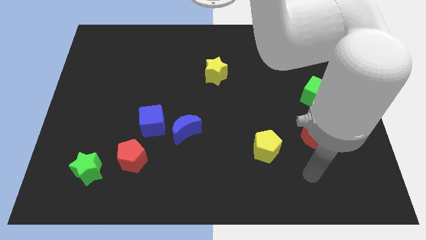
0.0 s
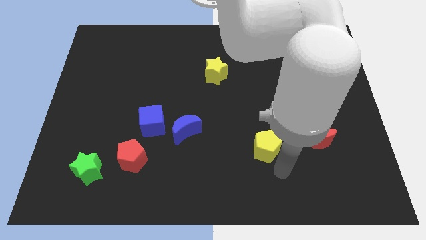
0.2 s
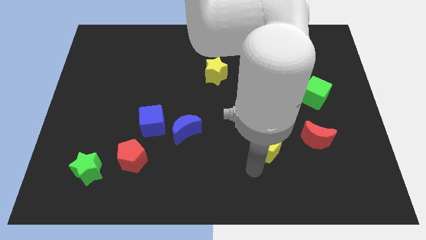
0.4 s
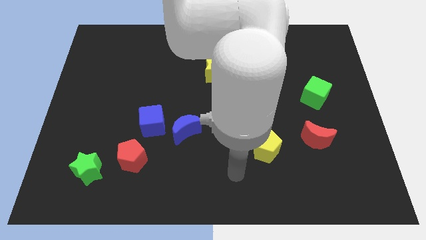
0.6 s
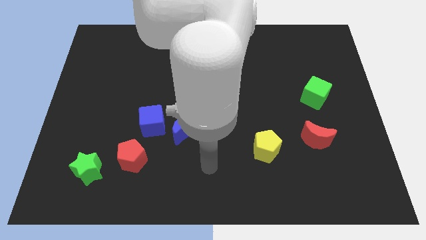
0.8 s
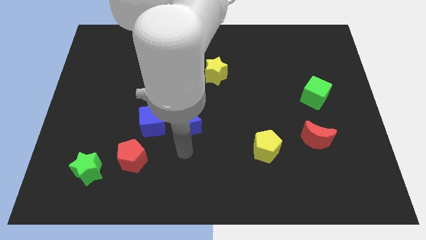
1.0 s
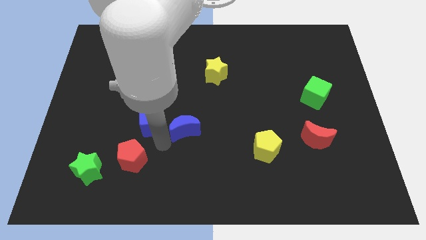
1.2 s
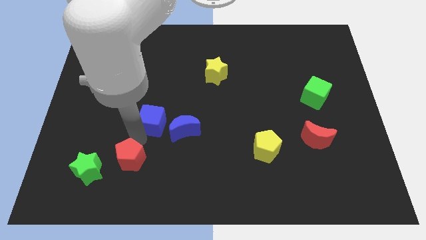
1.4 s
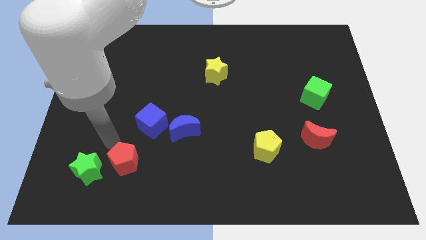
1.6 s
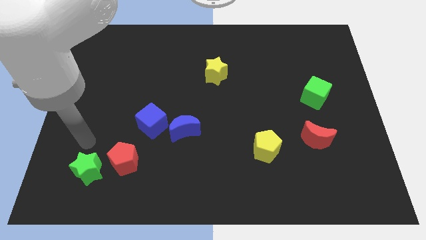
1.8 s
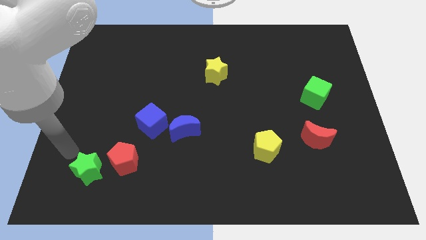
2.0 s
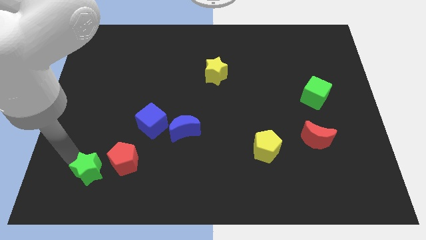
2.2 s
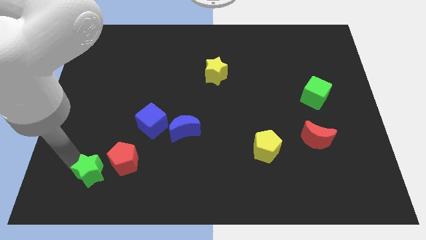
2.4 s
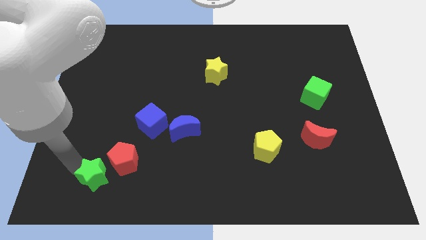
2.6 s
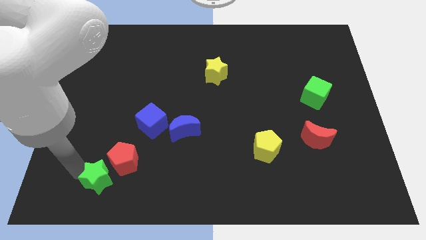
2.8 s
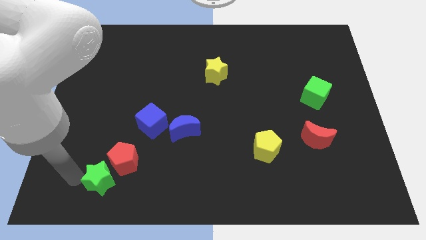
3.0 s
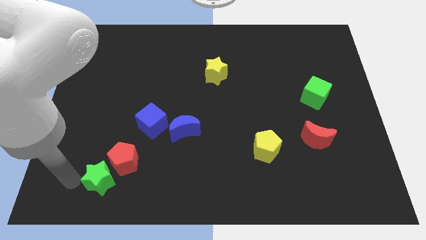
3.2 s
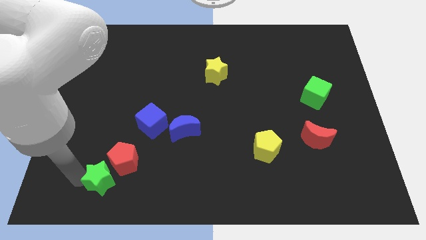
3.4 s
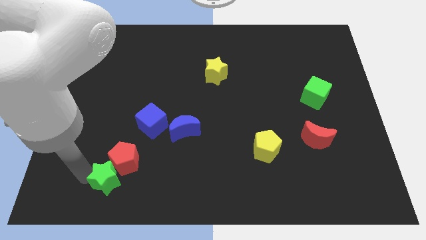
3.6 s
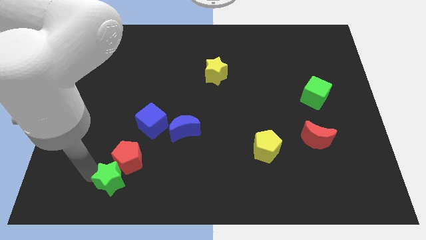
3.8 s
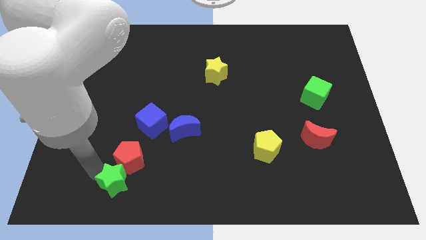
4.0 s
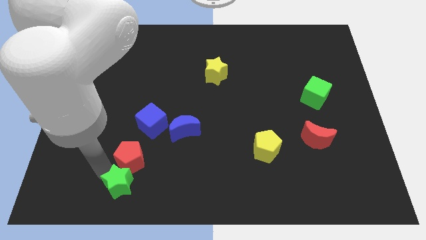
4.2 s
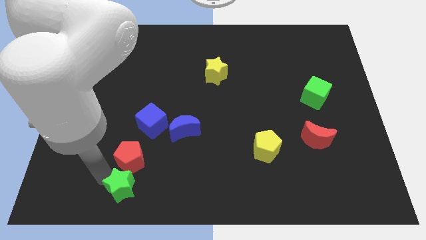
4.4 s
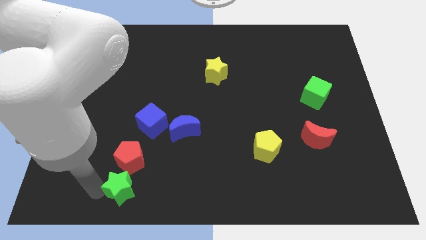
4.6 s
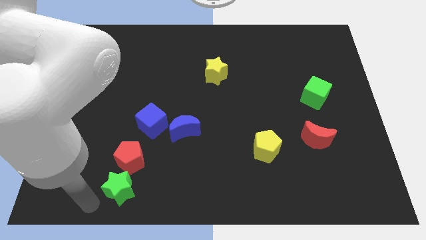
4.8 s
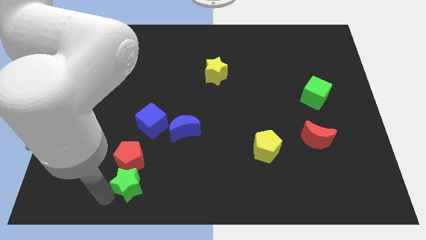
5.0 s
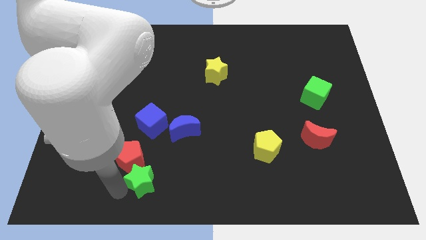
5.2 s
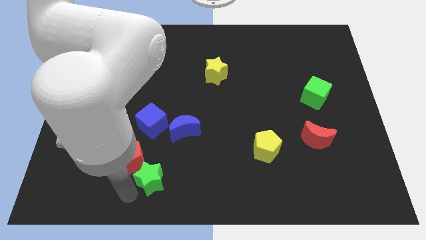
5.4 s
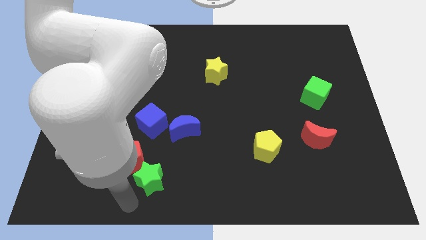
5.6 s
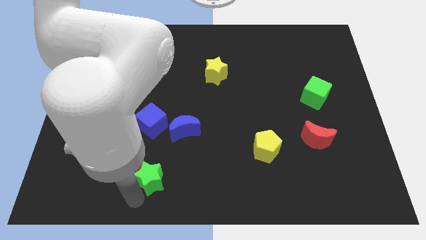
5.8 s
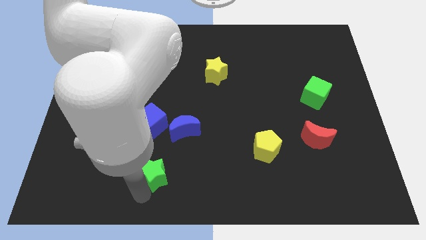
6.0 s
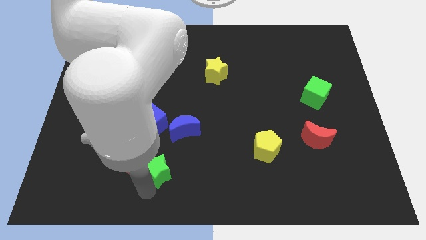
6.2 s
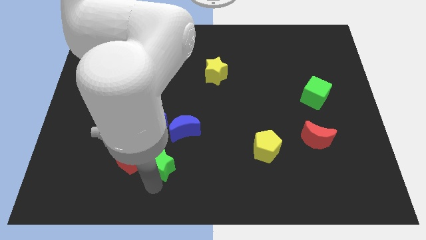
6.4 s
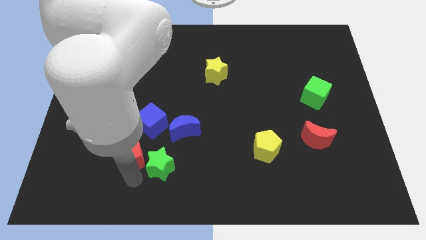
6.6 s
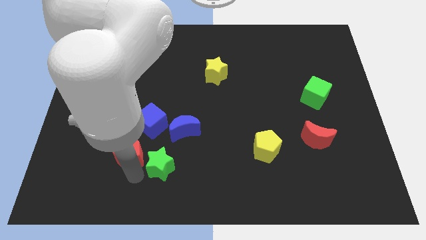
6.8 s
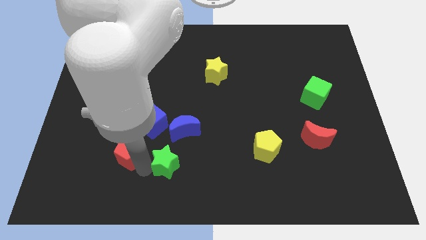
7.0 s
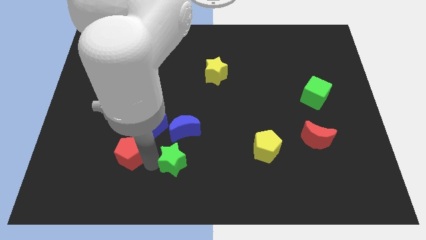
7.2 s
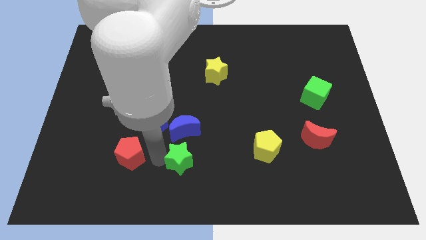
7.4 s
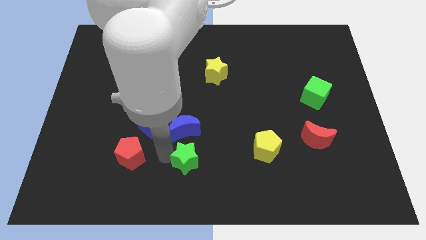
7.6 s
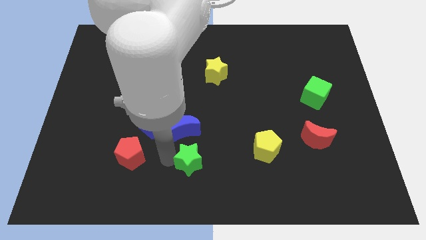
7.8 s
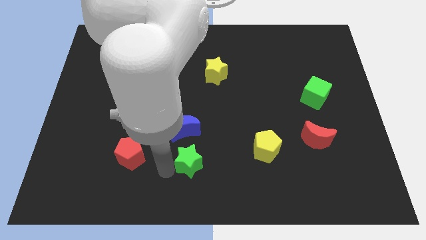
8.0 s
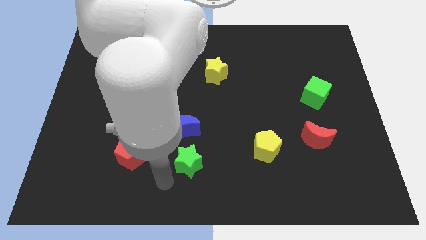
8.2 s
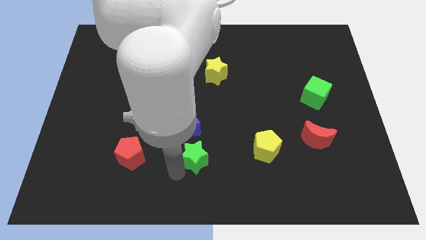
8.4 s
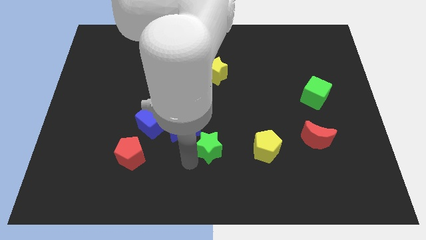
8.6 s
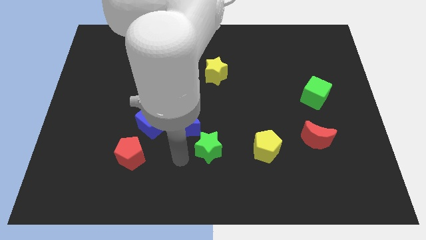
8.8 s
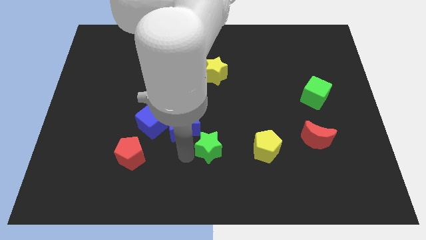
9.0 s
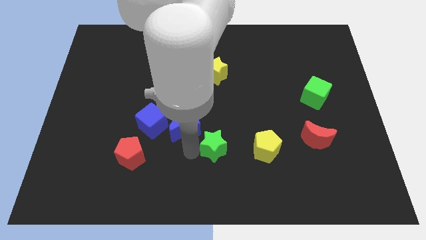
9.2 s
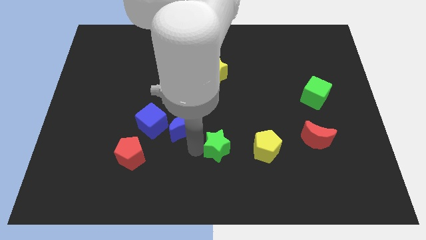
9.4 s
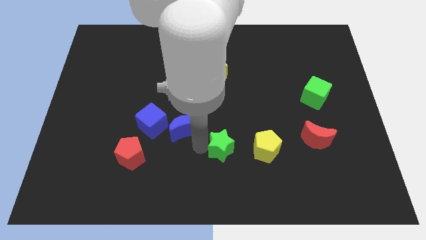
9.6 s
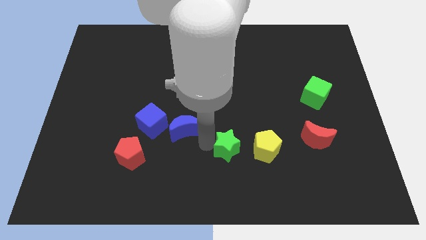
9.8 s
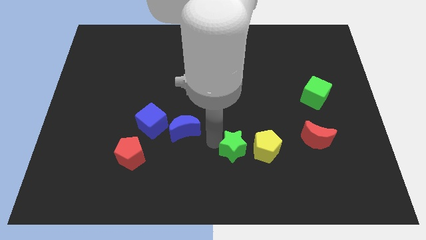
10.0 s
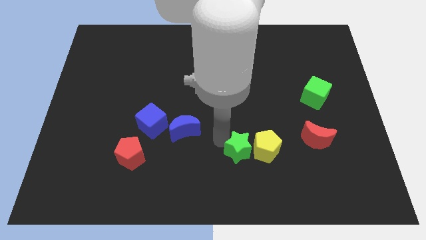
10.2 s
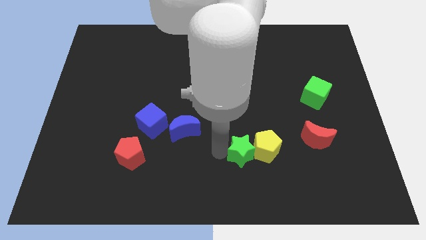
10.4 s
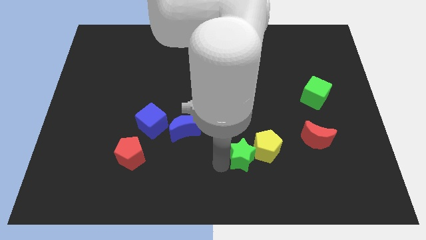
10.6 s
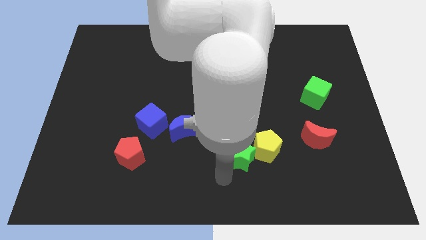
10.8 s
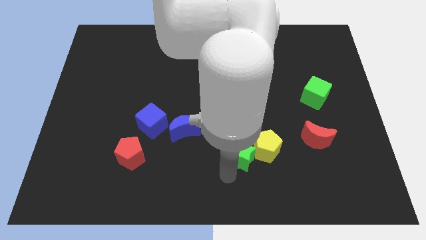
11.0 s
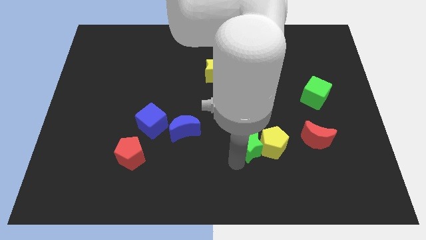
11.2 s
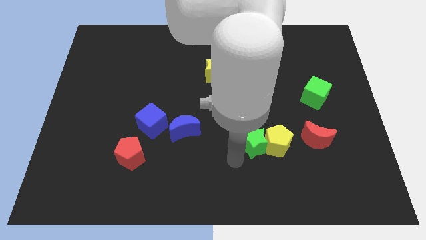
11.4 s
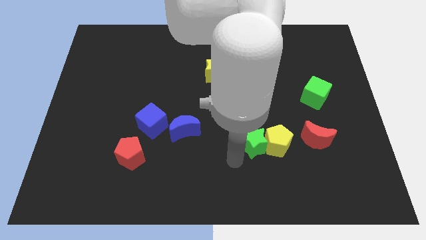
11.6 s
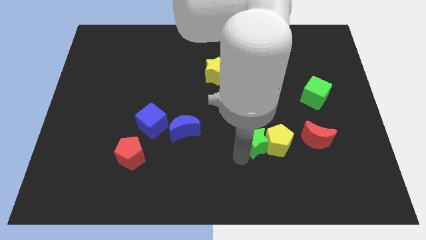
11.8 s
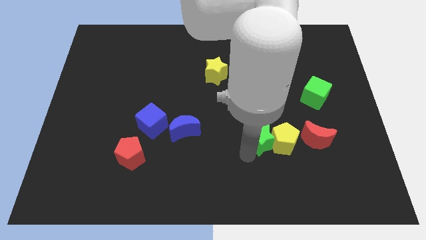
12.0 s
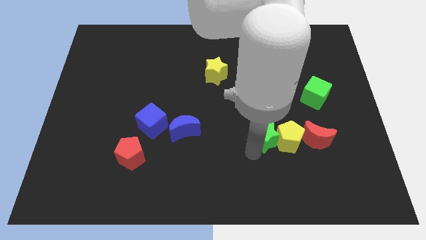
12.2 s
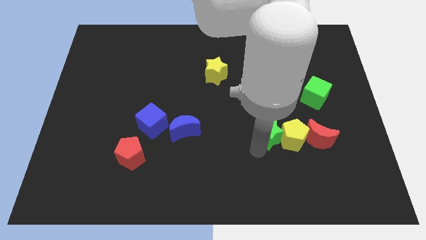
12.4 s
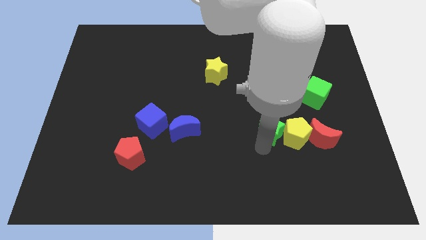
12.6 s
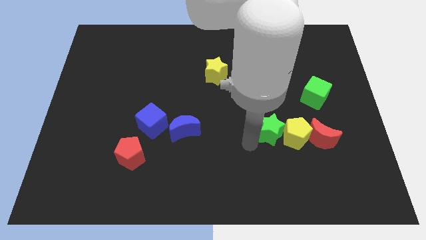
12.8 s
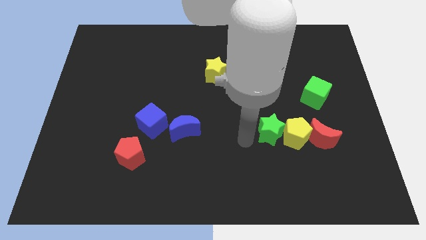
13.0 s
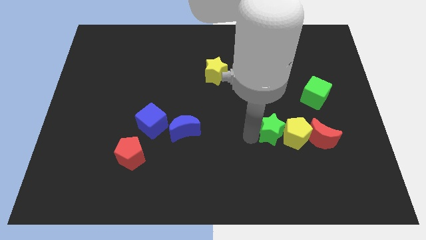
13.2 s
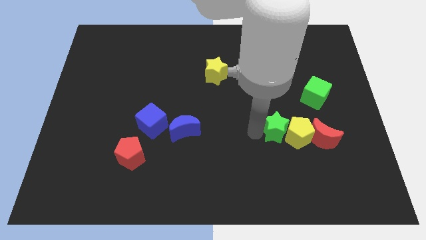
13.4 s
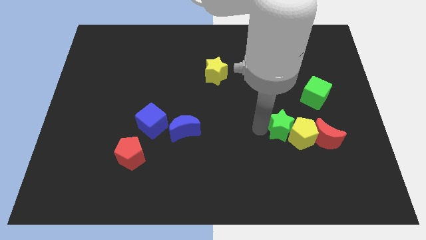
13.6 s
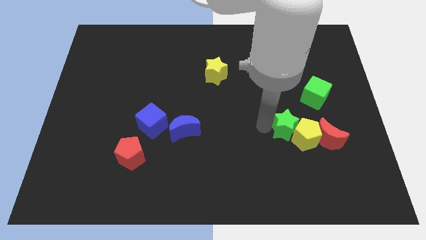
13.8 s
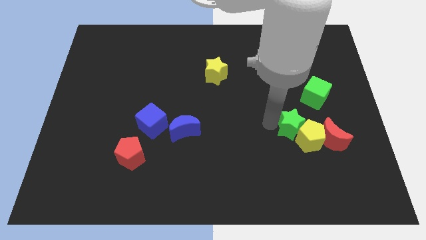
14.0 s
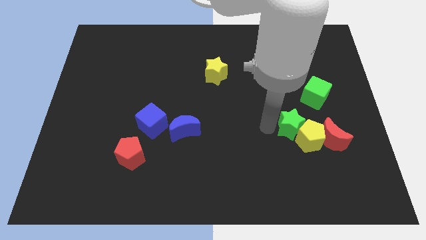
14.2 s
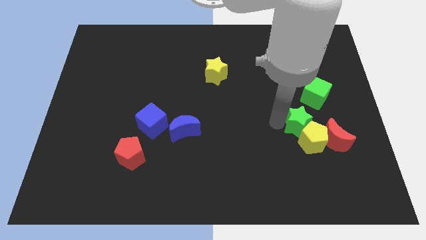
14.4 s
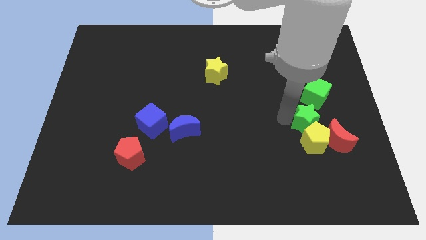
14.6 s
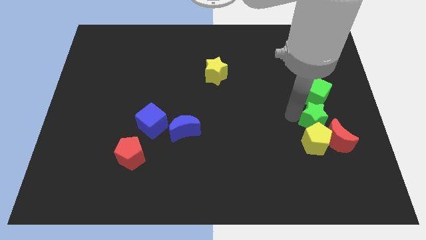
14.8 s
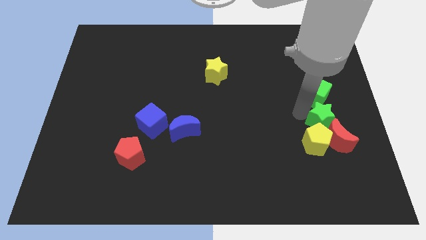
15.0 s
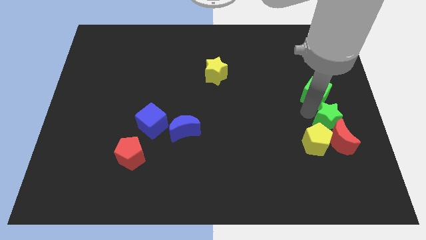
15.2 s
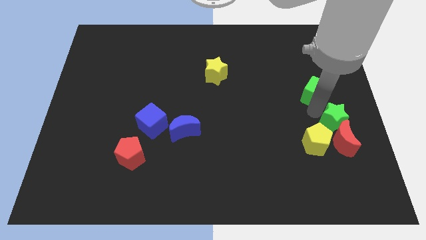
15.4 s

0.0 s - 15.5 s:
move the green star to the top right of the red moon
